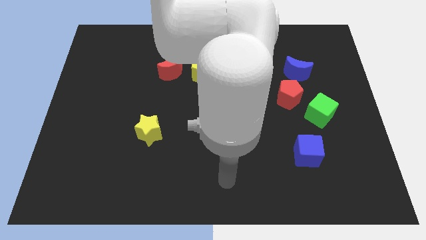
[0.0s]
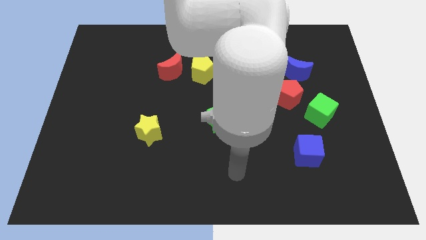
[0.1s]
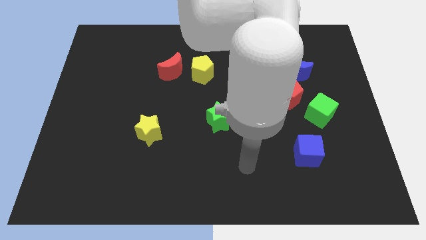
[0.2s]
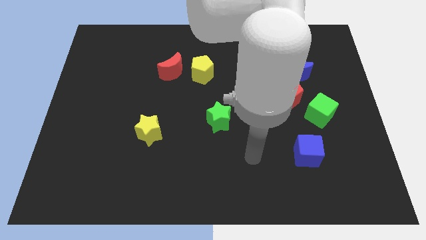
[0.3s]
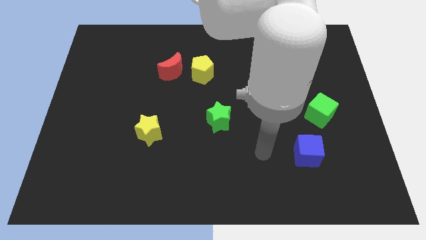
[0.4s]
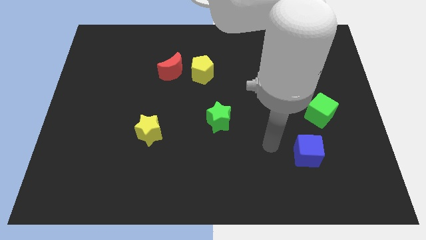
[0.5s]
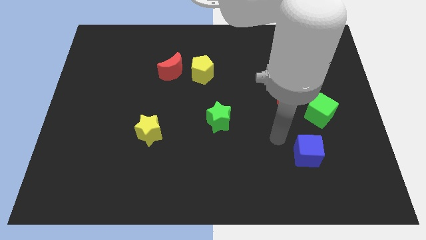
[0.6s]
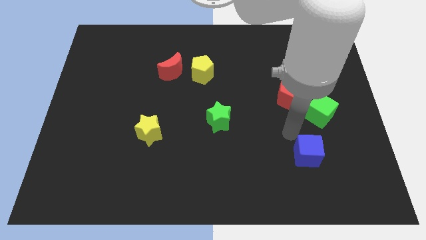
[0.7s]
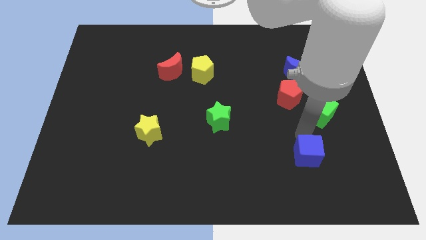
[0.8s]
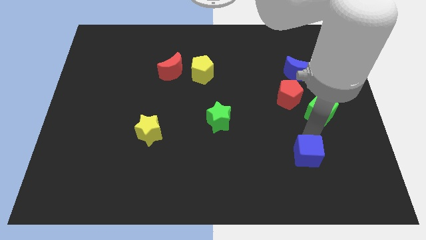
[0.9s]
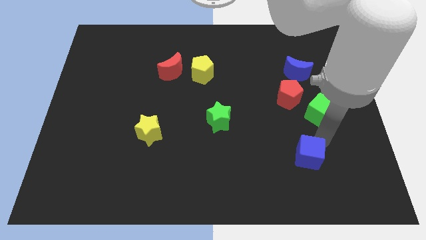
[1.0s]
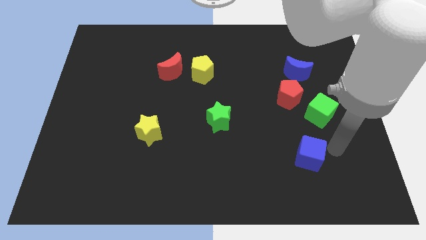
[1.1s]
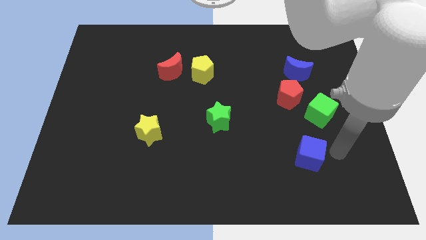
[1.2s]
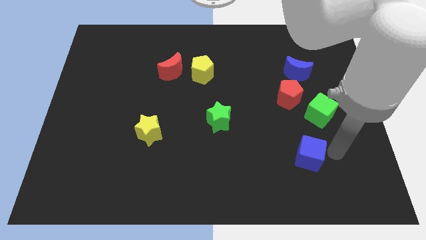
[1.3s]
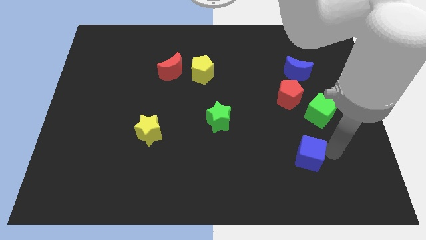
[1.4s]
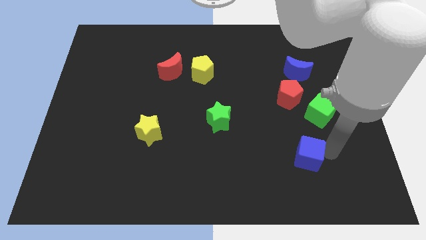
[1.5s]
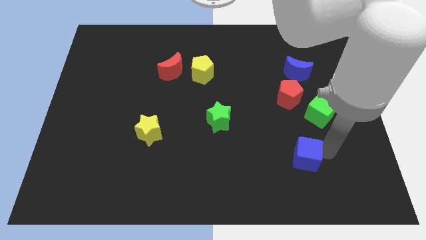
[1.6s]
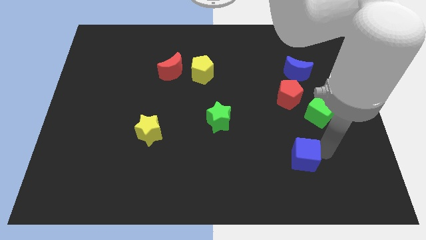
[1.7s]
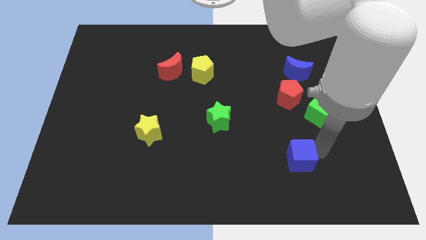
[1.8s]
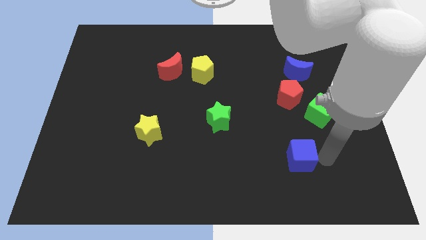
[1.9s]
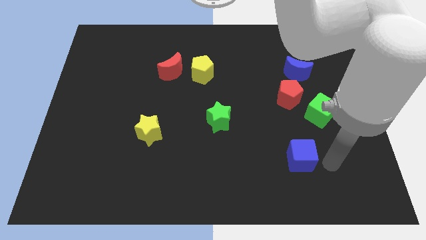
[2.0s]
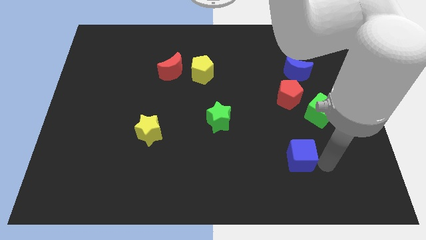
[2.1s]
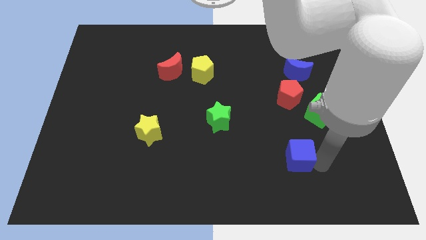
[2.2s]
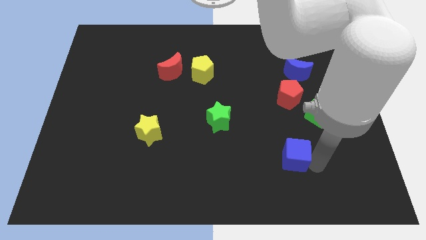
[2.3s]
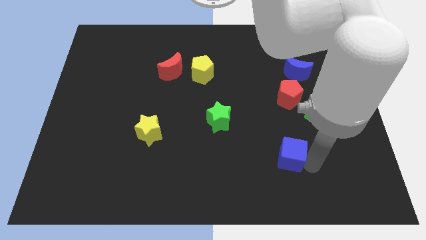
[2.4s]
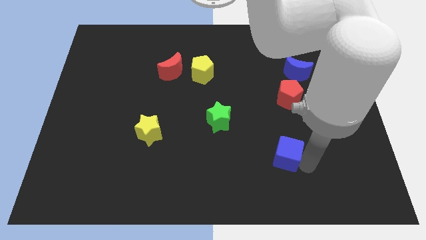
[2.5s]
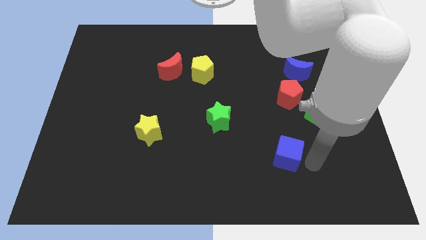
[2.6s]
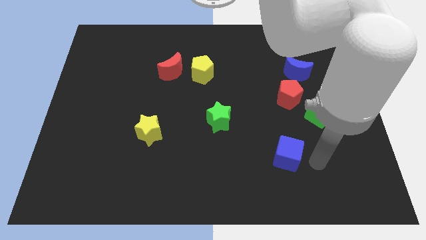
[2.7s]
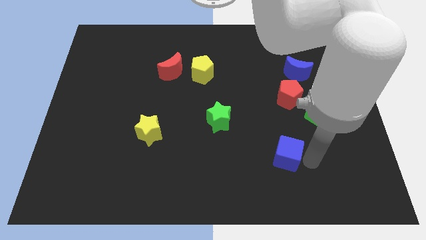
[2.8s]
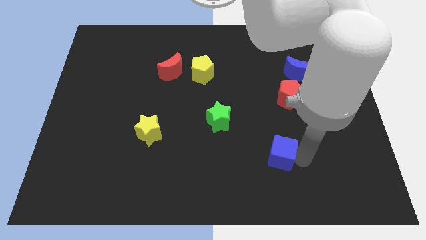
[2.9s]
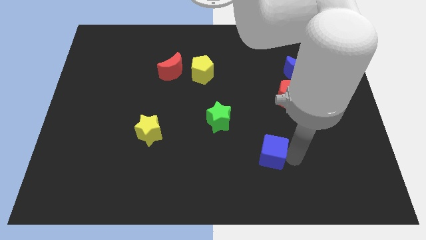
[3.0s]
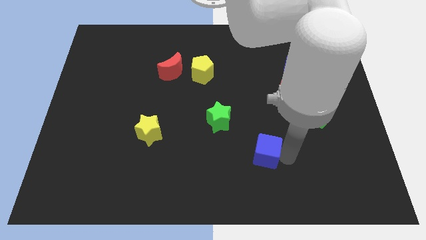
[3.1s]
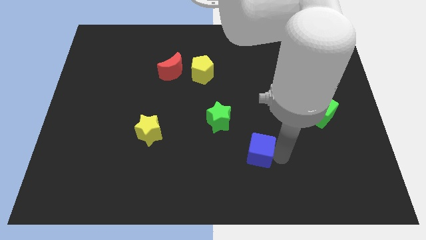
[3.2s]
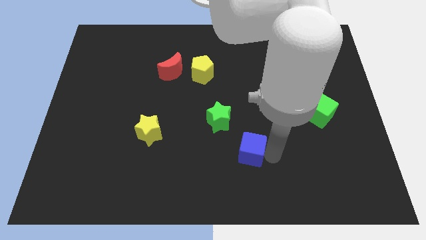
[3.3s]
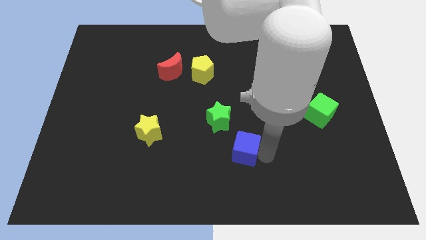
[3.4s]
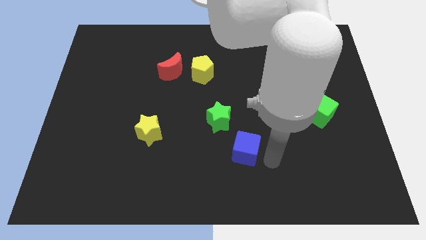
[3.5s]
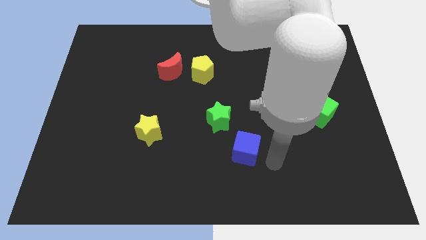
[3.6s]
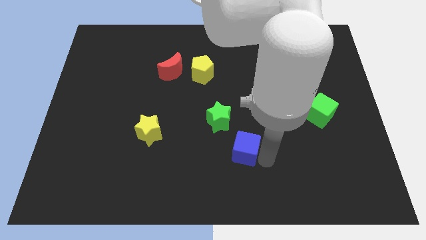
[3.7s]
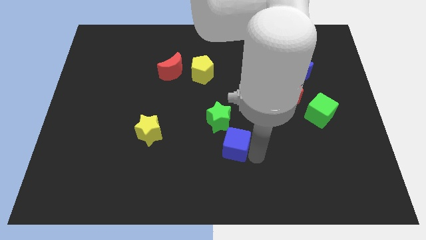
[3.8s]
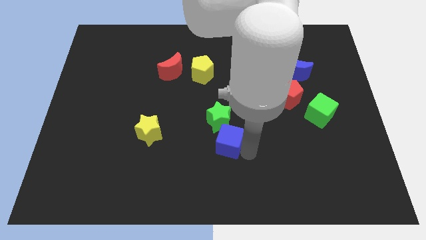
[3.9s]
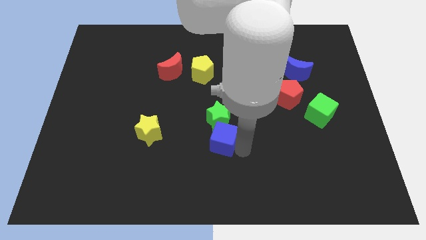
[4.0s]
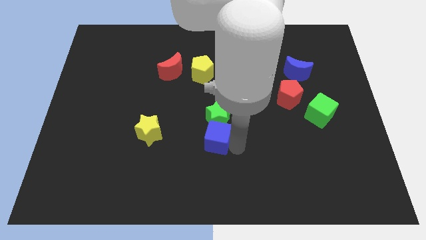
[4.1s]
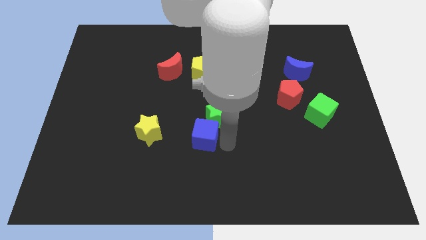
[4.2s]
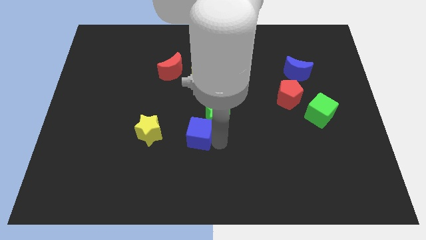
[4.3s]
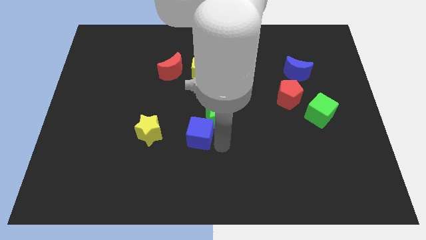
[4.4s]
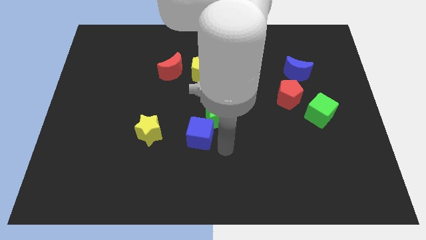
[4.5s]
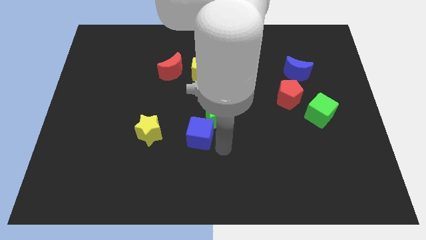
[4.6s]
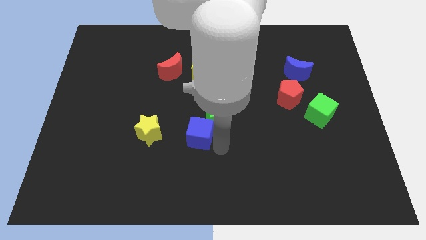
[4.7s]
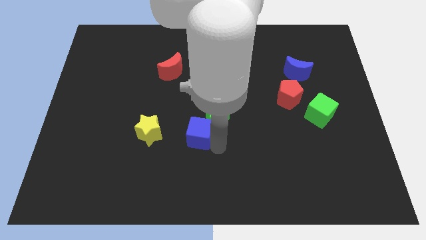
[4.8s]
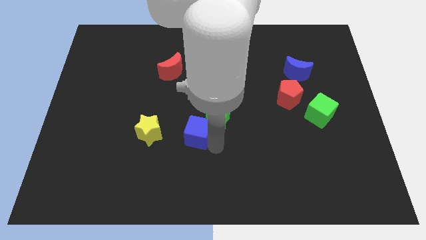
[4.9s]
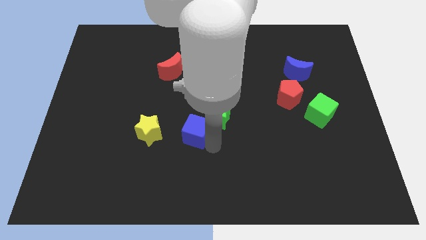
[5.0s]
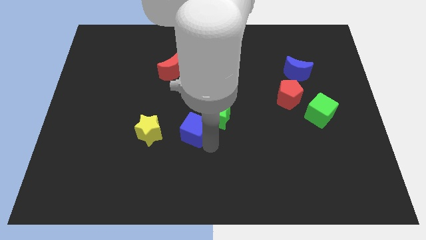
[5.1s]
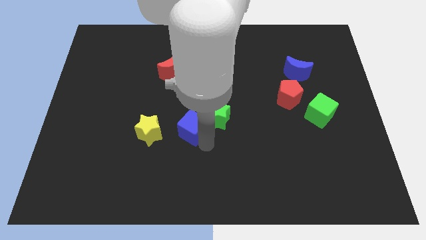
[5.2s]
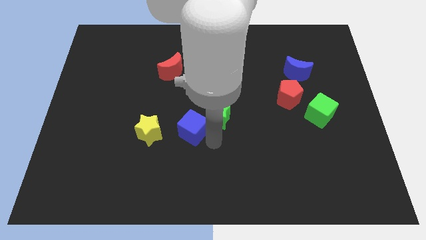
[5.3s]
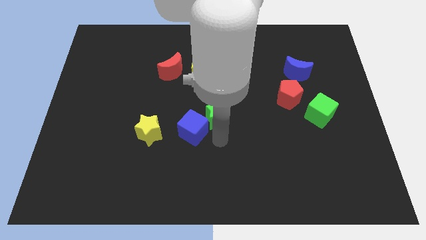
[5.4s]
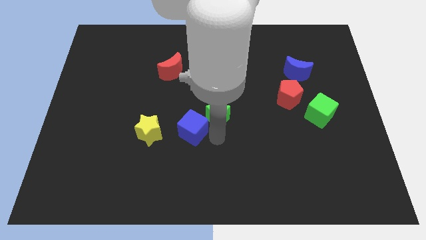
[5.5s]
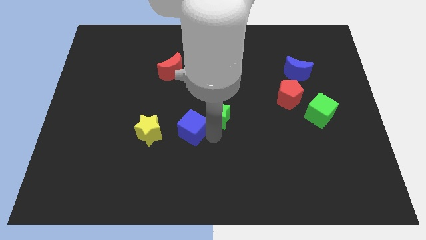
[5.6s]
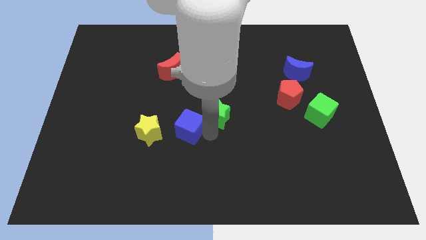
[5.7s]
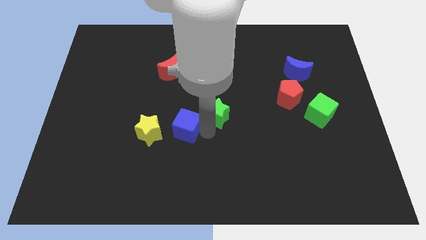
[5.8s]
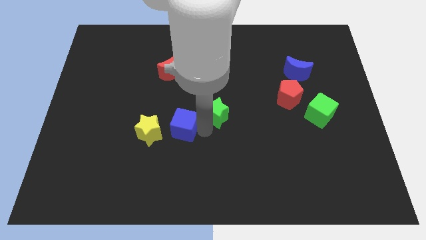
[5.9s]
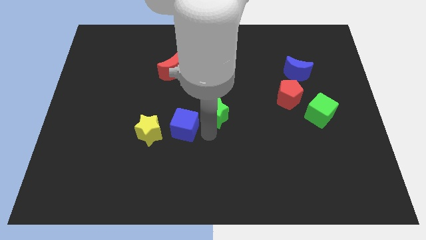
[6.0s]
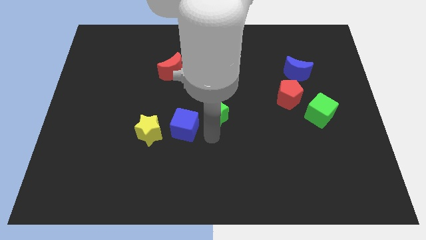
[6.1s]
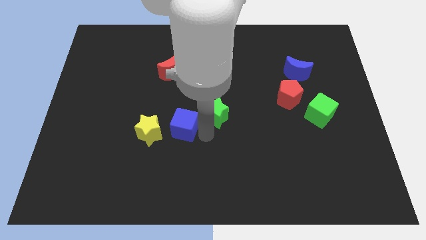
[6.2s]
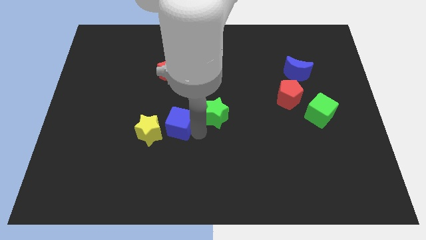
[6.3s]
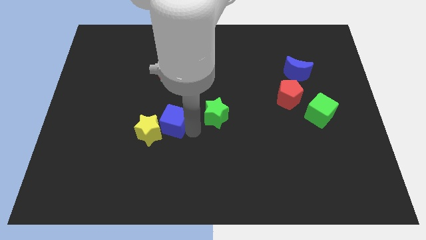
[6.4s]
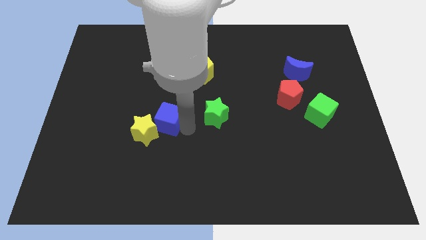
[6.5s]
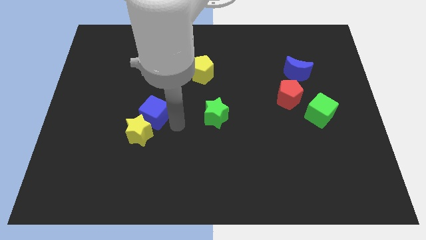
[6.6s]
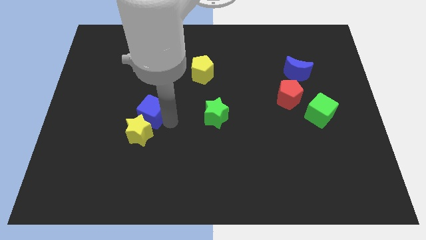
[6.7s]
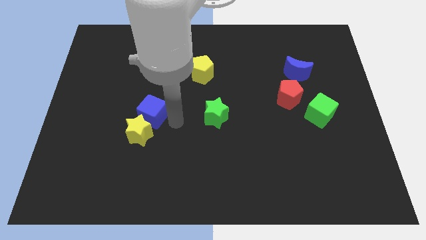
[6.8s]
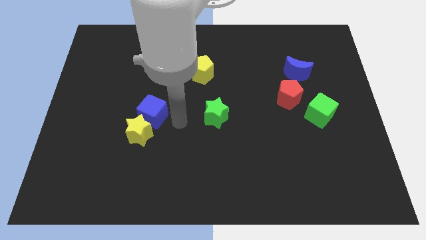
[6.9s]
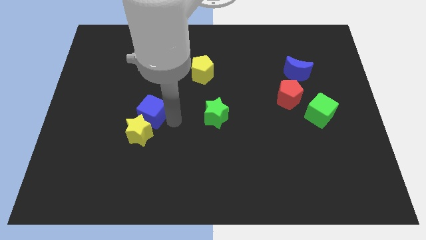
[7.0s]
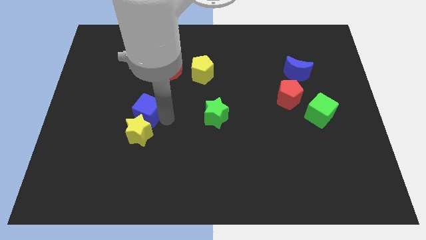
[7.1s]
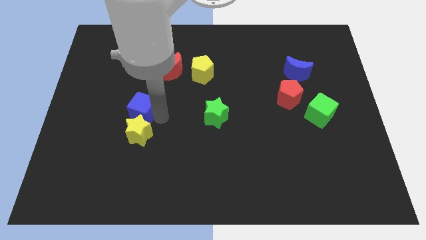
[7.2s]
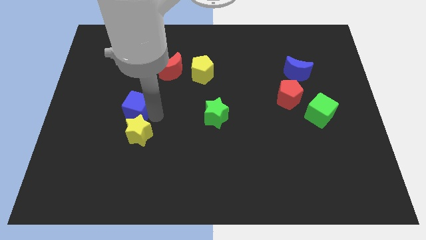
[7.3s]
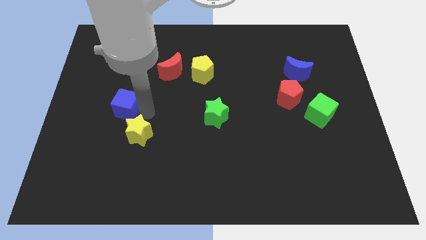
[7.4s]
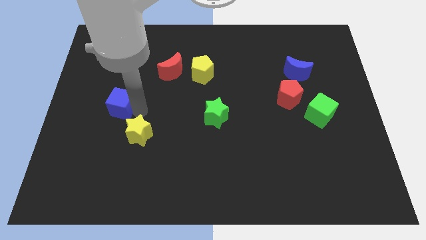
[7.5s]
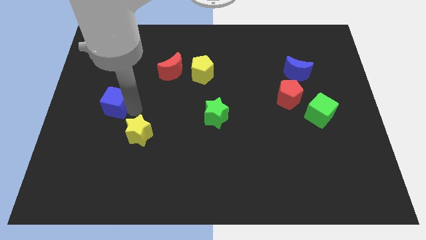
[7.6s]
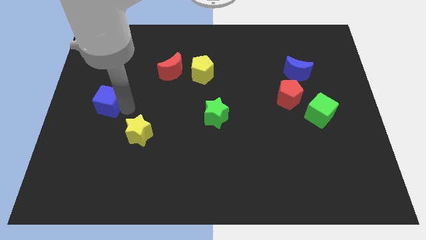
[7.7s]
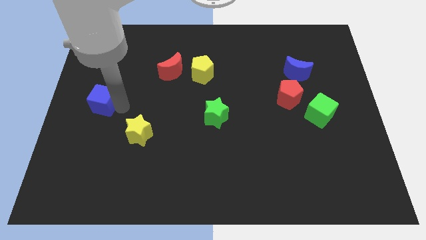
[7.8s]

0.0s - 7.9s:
push the blue cube to the left side of the board
